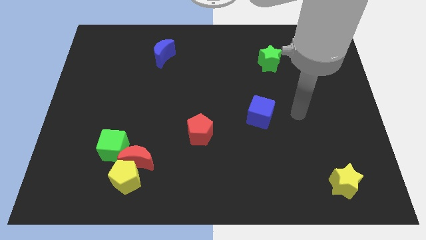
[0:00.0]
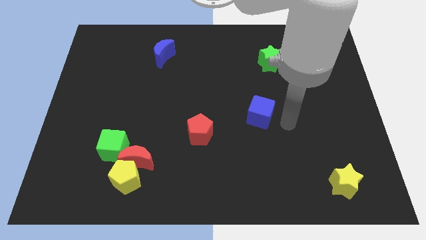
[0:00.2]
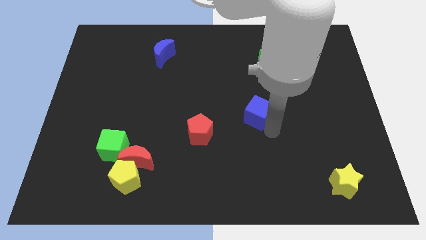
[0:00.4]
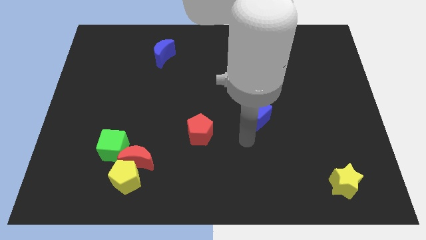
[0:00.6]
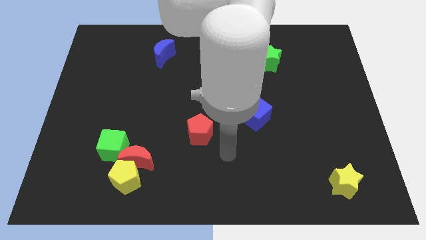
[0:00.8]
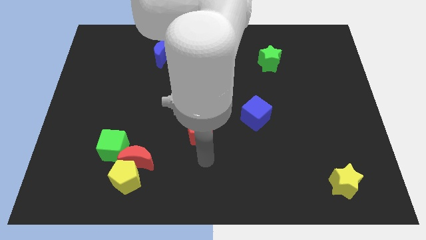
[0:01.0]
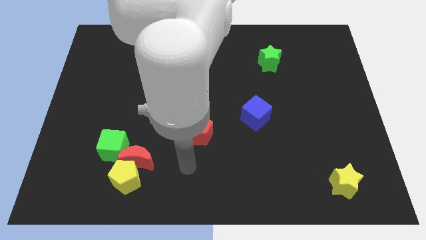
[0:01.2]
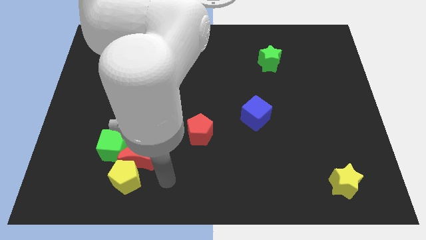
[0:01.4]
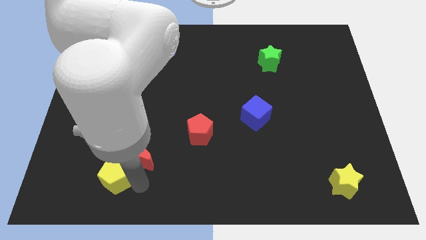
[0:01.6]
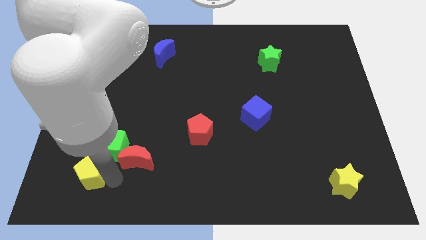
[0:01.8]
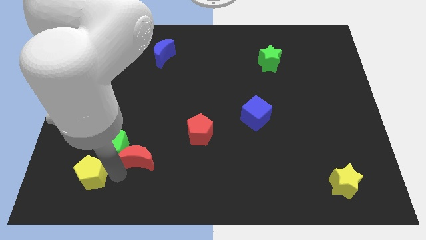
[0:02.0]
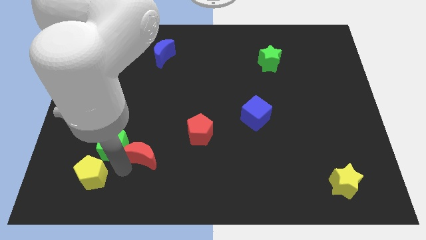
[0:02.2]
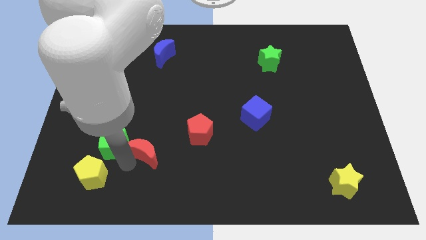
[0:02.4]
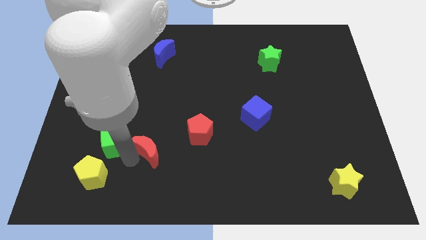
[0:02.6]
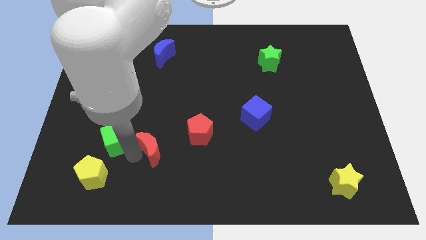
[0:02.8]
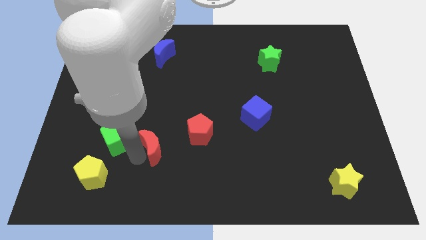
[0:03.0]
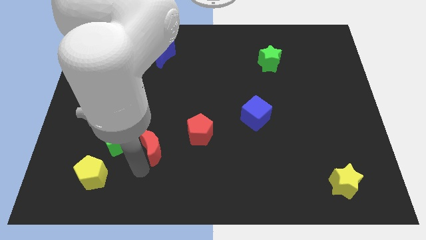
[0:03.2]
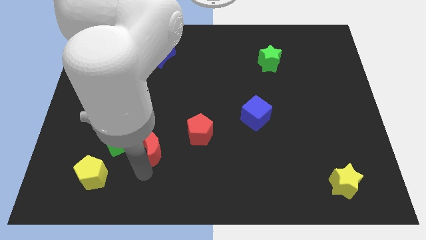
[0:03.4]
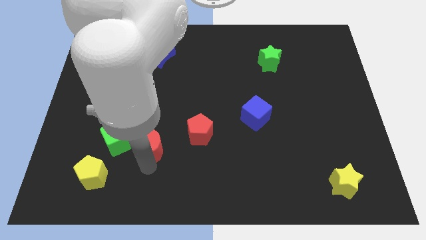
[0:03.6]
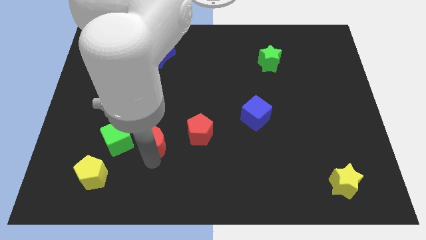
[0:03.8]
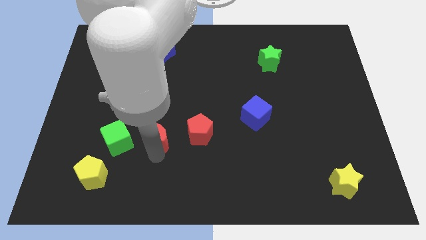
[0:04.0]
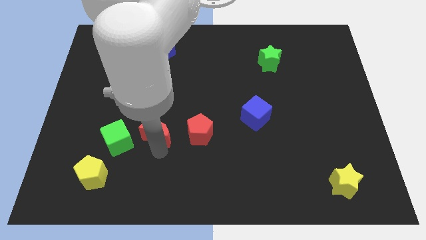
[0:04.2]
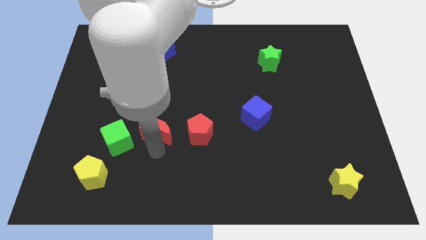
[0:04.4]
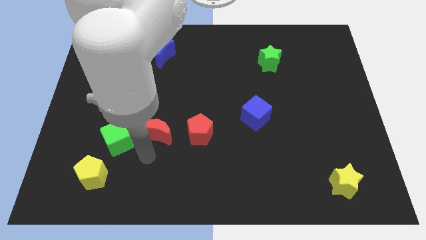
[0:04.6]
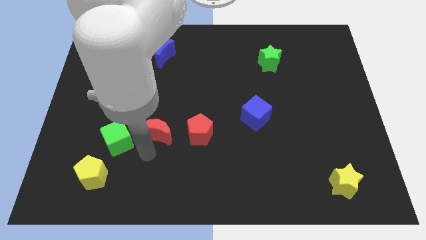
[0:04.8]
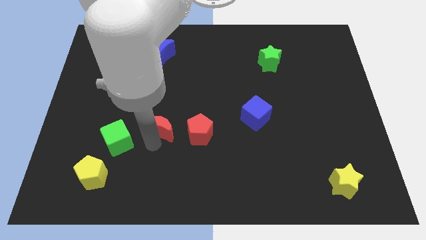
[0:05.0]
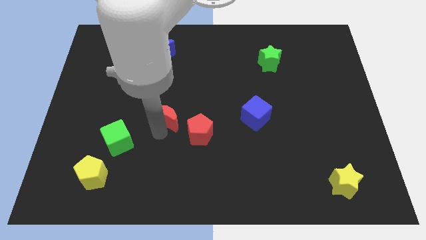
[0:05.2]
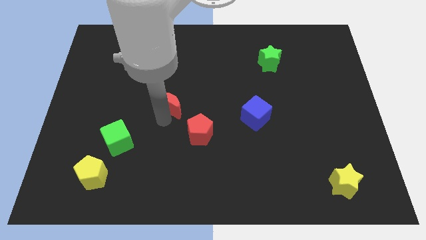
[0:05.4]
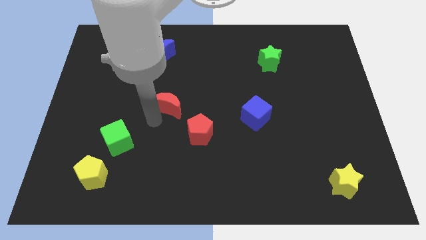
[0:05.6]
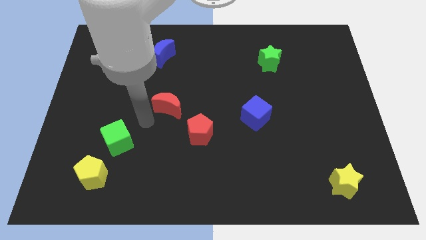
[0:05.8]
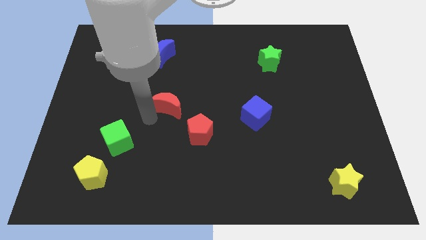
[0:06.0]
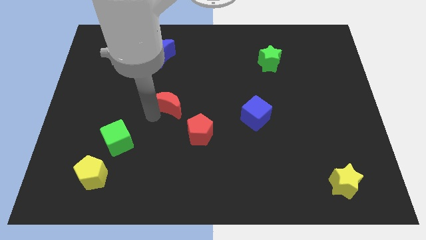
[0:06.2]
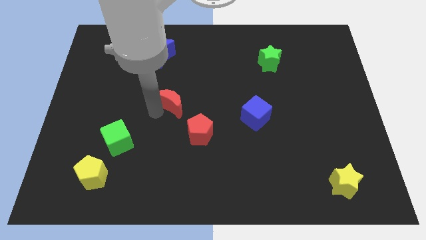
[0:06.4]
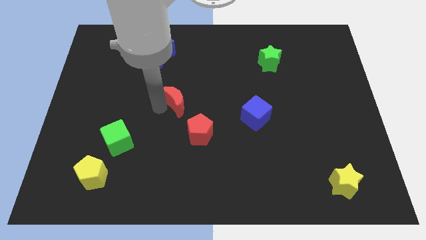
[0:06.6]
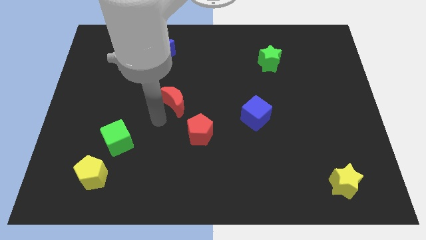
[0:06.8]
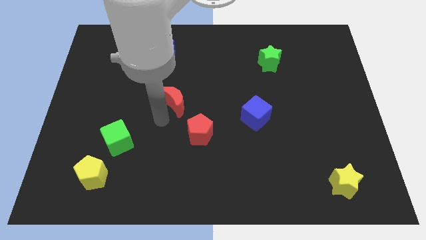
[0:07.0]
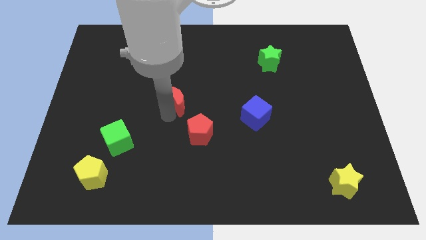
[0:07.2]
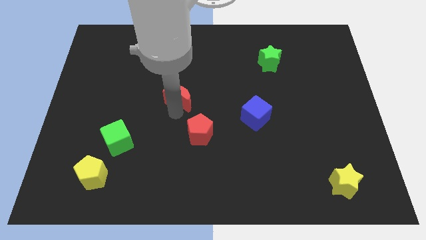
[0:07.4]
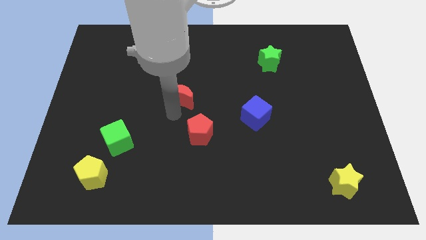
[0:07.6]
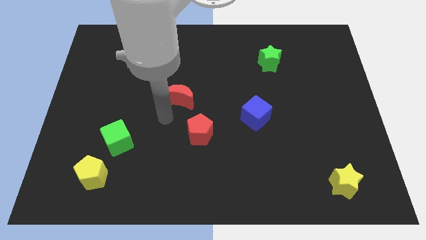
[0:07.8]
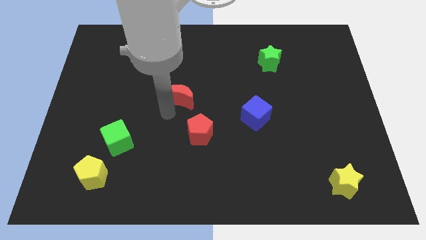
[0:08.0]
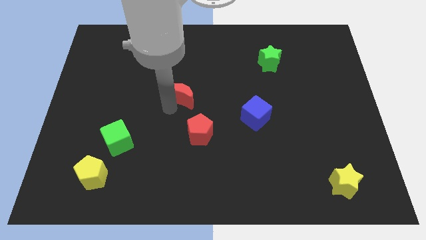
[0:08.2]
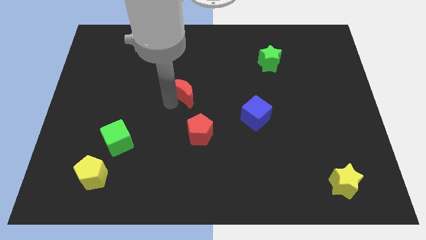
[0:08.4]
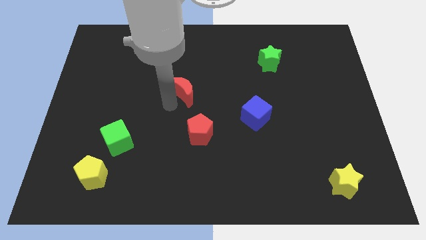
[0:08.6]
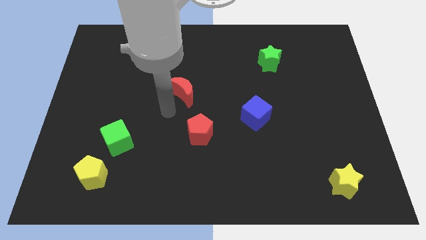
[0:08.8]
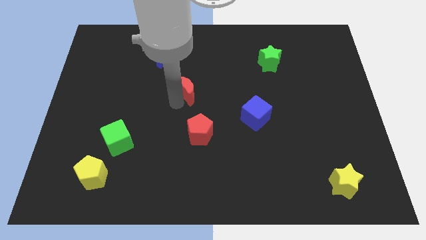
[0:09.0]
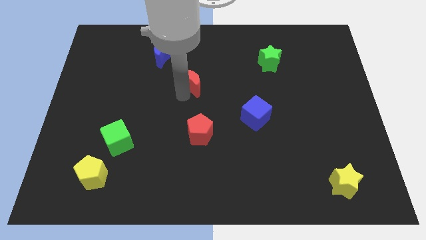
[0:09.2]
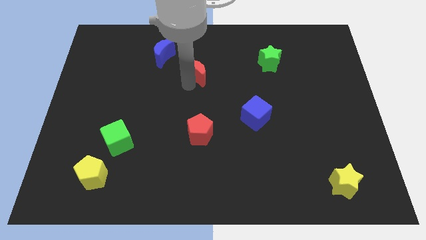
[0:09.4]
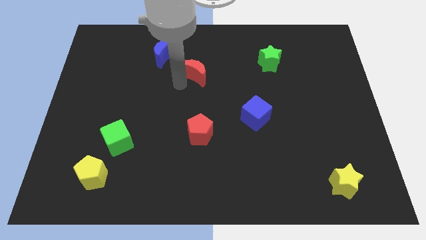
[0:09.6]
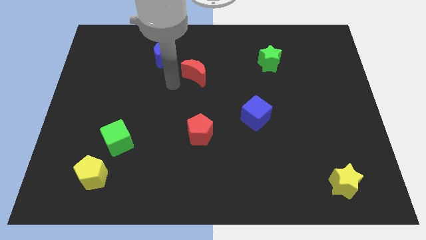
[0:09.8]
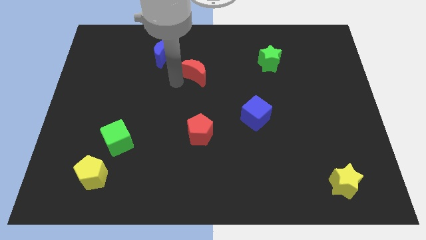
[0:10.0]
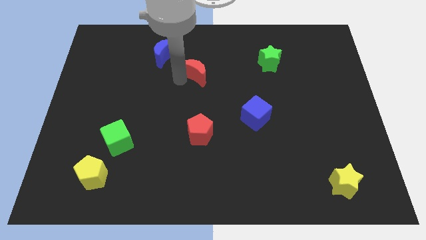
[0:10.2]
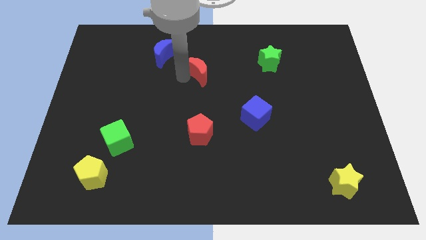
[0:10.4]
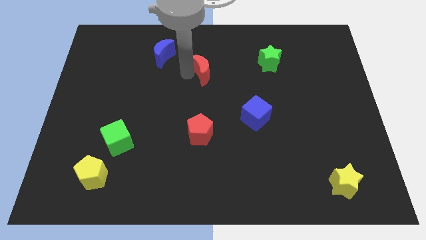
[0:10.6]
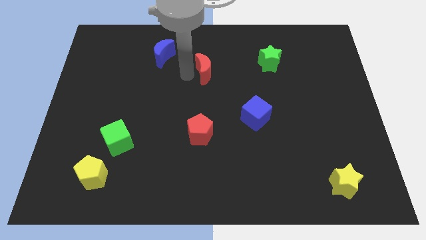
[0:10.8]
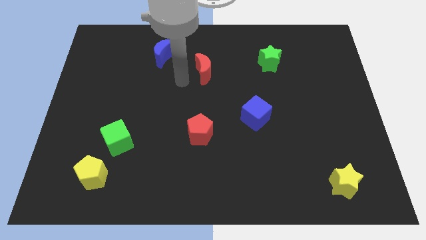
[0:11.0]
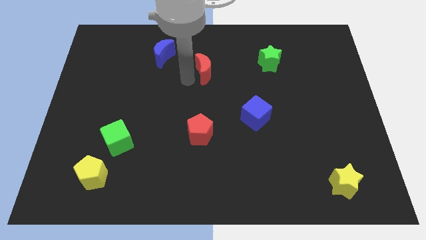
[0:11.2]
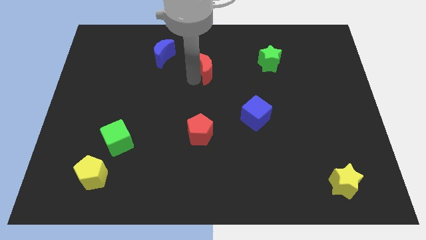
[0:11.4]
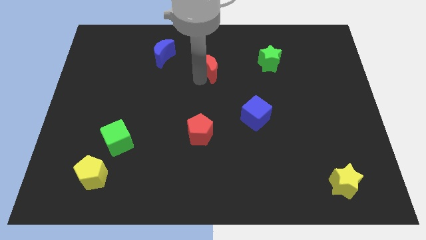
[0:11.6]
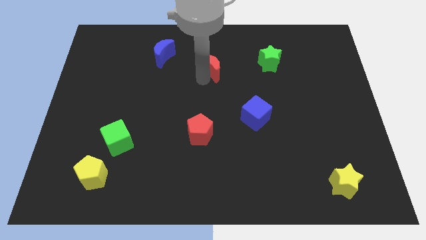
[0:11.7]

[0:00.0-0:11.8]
put the red moon left of the green star

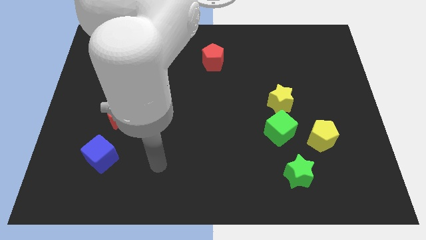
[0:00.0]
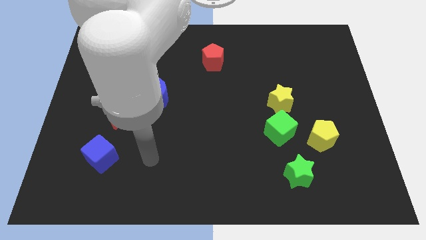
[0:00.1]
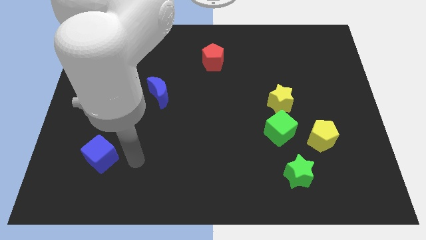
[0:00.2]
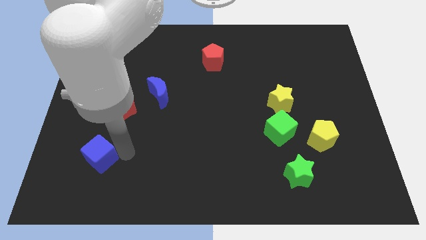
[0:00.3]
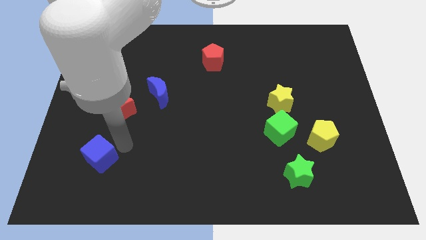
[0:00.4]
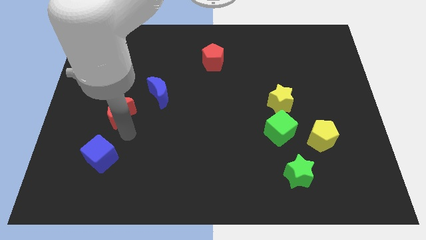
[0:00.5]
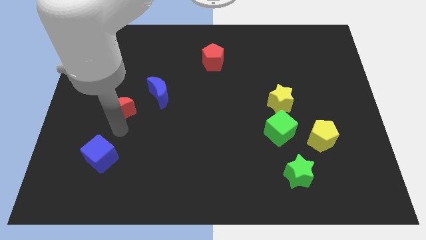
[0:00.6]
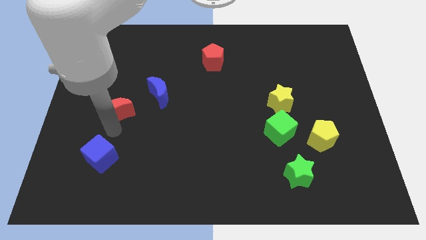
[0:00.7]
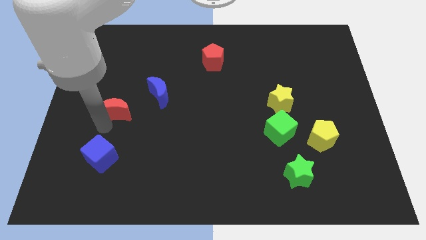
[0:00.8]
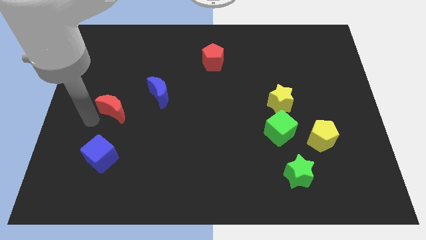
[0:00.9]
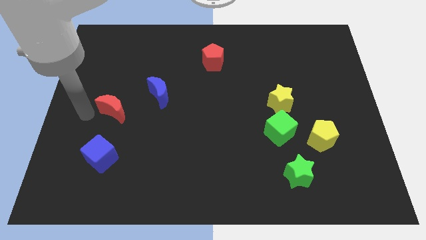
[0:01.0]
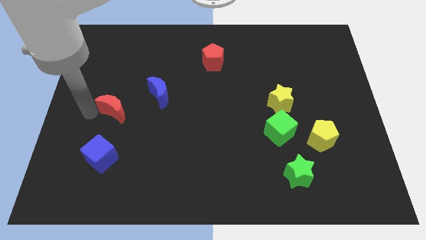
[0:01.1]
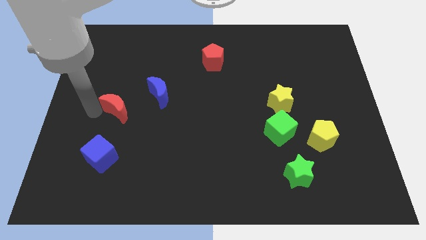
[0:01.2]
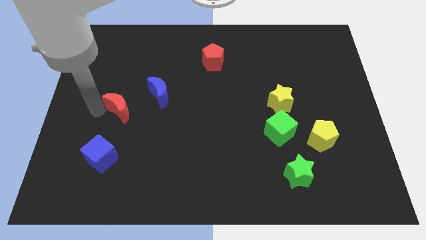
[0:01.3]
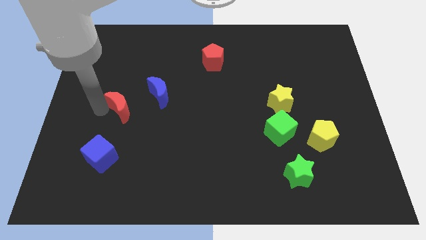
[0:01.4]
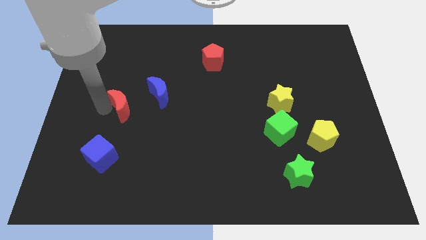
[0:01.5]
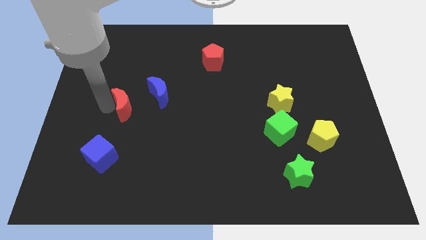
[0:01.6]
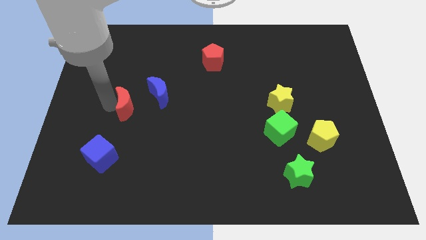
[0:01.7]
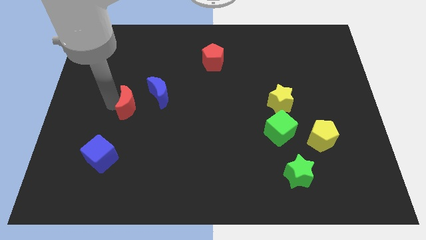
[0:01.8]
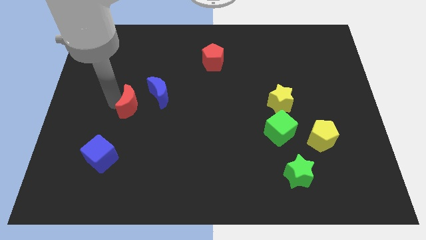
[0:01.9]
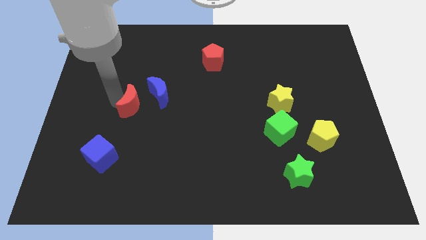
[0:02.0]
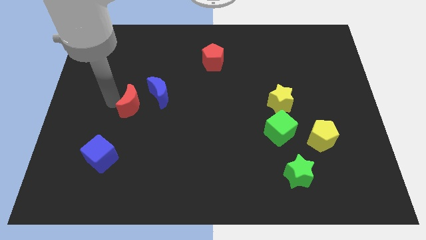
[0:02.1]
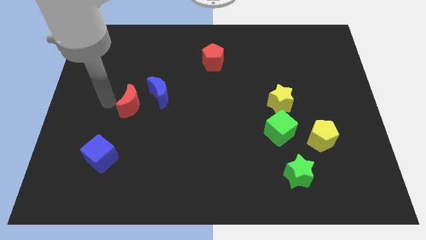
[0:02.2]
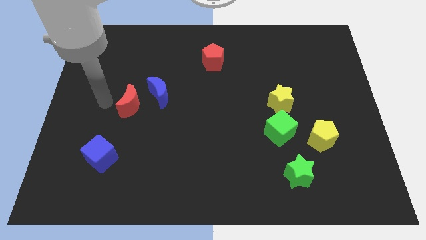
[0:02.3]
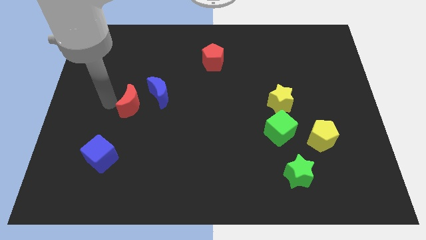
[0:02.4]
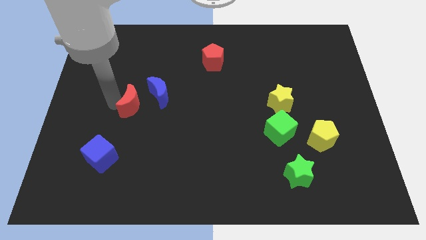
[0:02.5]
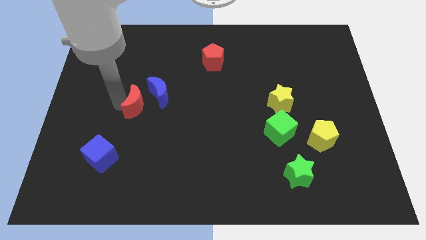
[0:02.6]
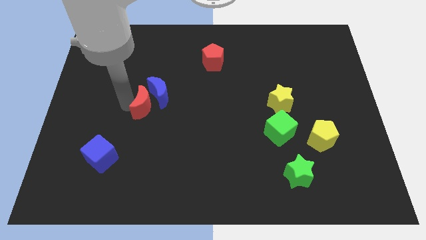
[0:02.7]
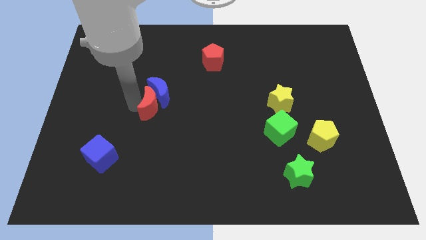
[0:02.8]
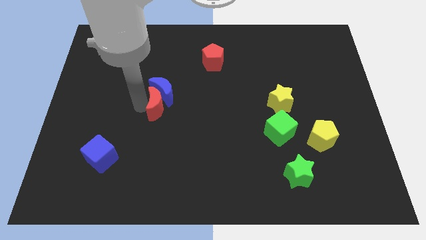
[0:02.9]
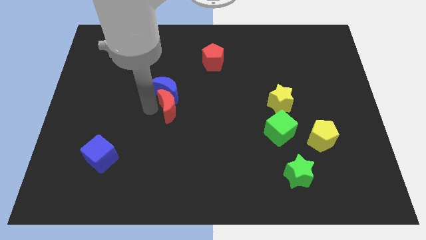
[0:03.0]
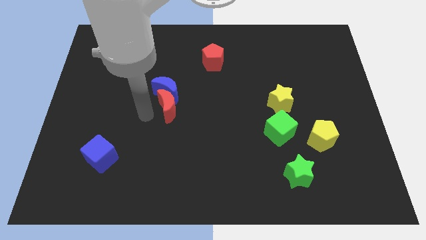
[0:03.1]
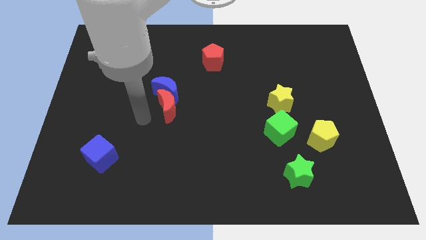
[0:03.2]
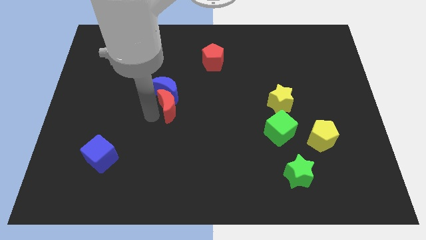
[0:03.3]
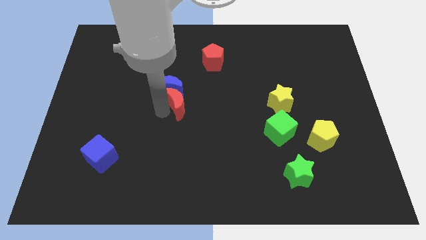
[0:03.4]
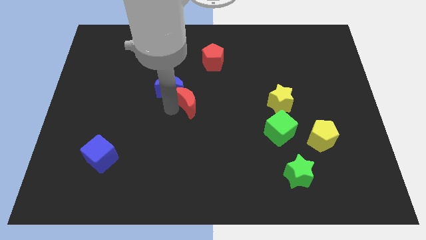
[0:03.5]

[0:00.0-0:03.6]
push the red moon to the right side of the blue moon
